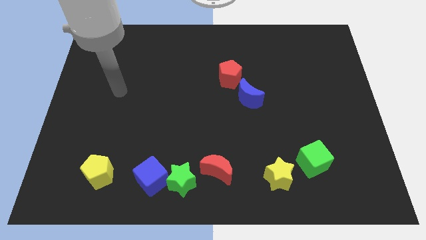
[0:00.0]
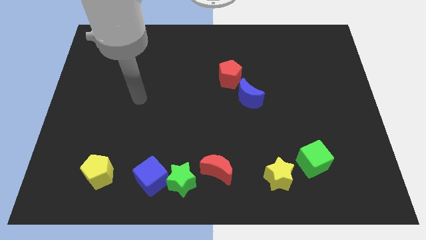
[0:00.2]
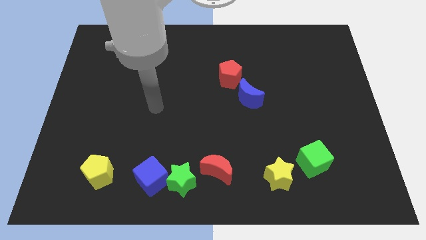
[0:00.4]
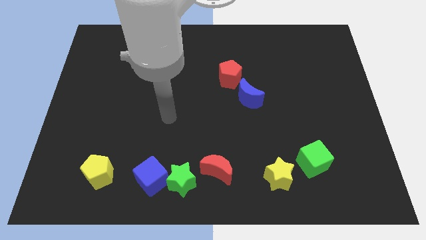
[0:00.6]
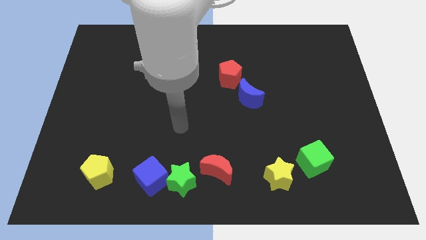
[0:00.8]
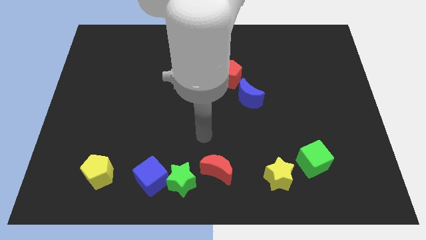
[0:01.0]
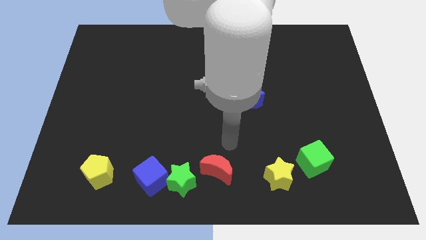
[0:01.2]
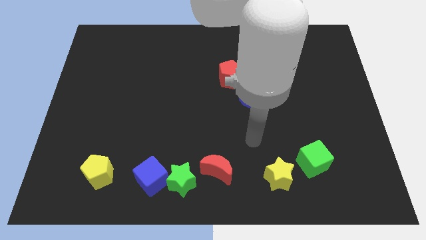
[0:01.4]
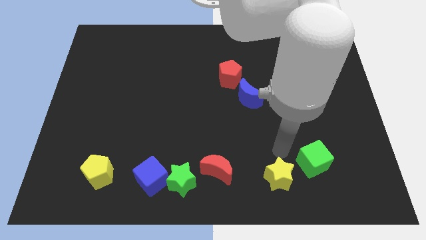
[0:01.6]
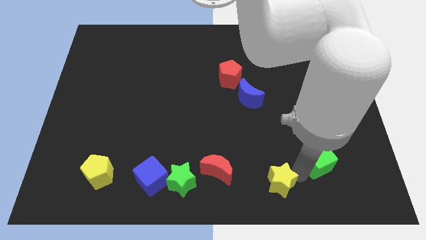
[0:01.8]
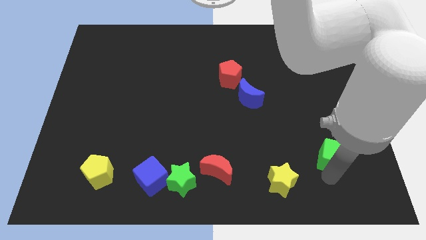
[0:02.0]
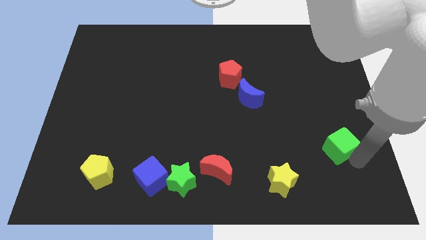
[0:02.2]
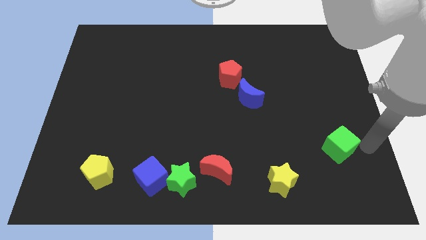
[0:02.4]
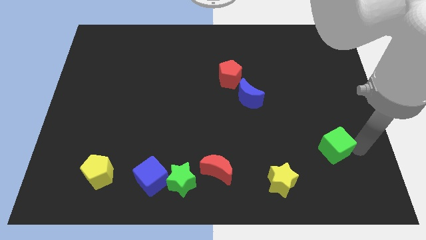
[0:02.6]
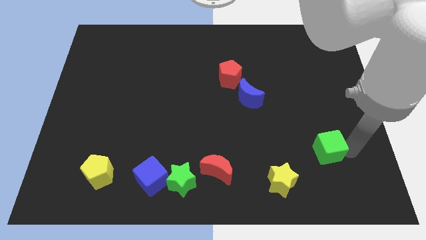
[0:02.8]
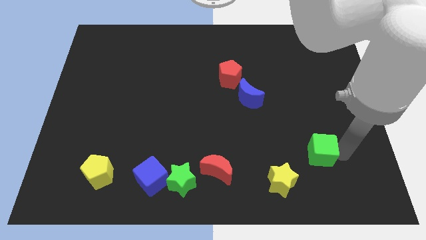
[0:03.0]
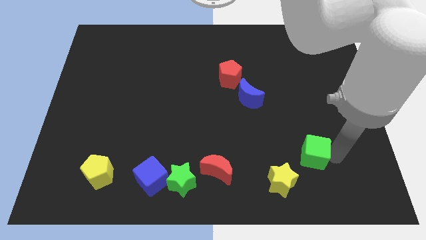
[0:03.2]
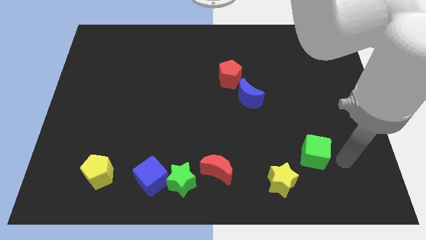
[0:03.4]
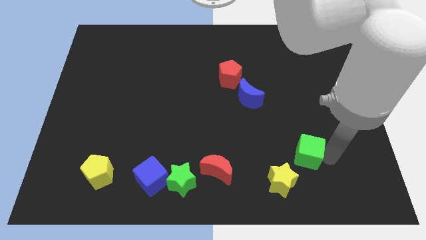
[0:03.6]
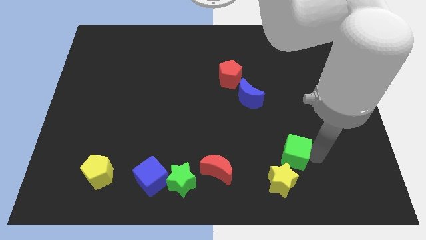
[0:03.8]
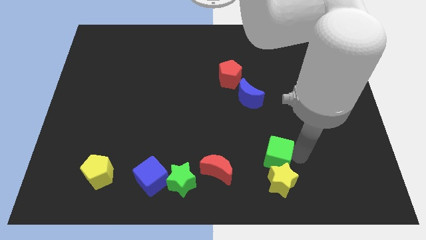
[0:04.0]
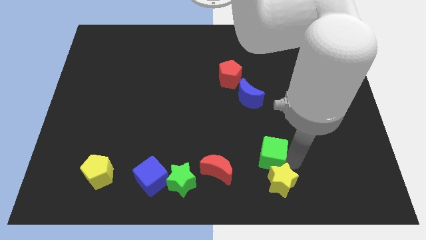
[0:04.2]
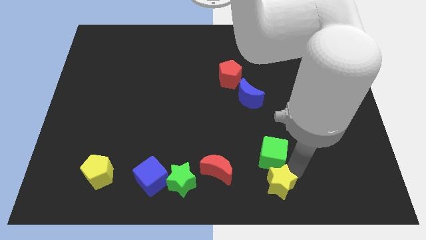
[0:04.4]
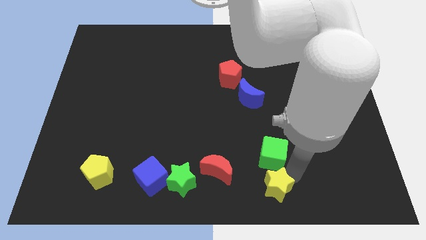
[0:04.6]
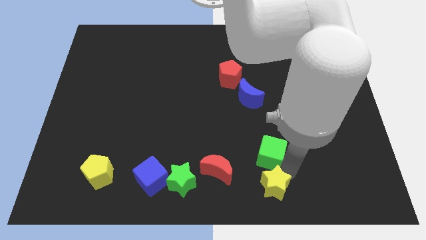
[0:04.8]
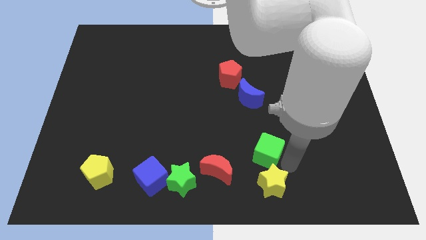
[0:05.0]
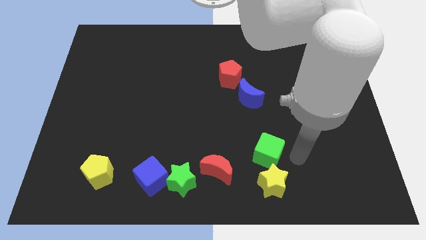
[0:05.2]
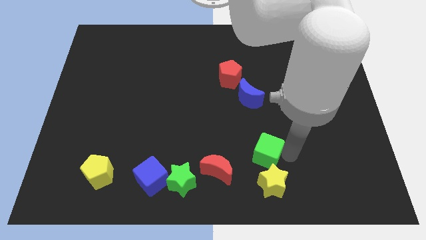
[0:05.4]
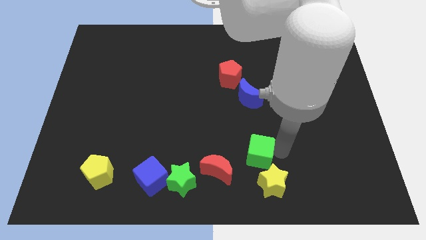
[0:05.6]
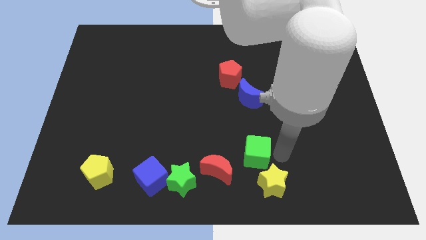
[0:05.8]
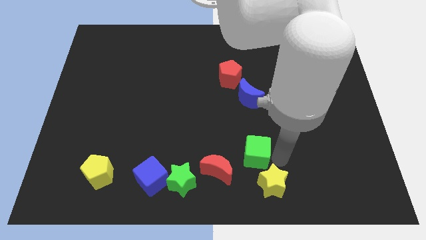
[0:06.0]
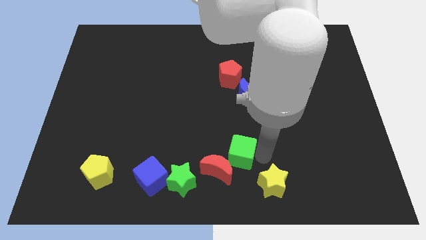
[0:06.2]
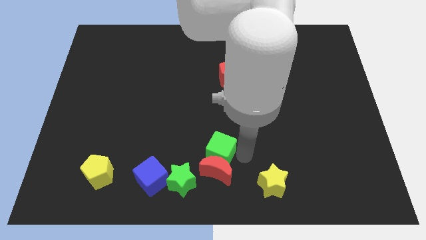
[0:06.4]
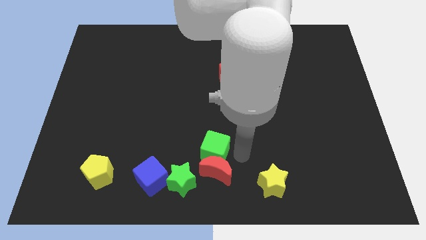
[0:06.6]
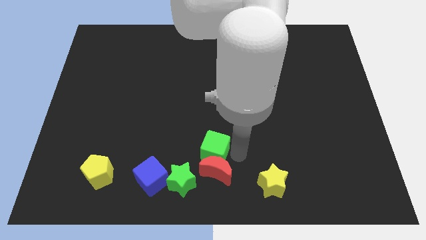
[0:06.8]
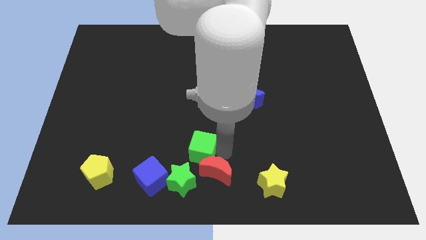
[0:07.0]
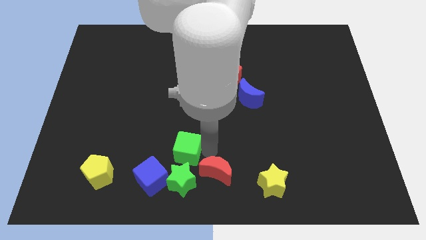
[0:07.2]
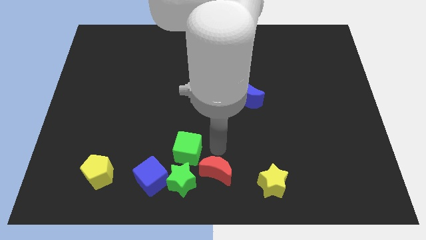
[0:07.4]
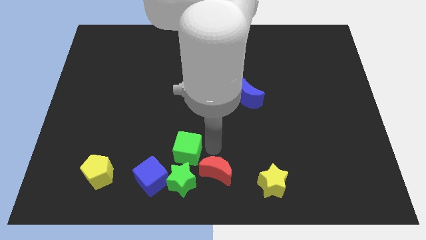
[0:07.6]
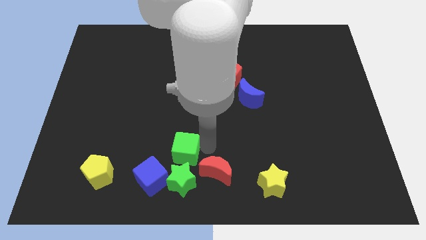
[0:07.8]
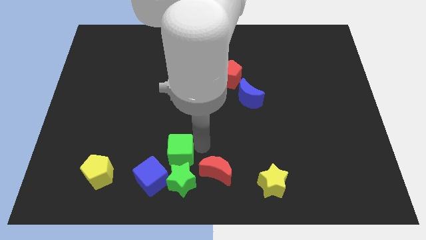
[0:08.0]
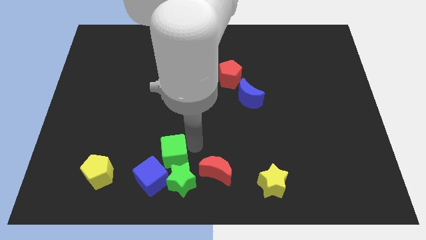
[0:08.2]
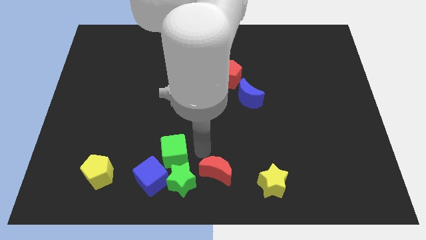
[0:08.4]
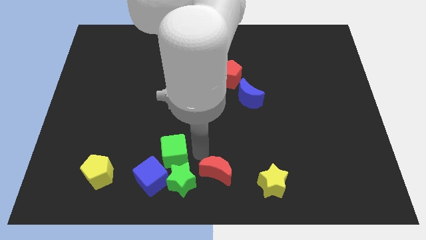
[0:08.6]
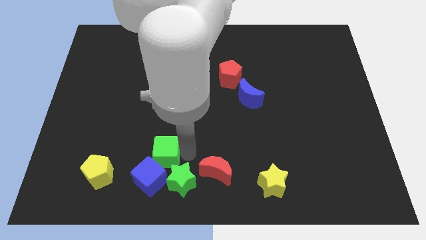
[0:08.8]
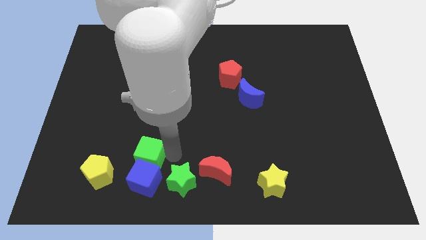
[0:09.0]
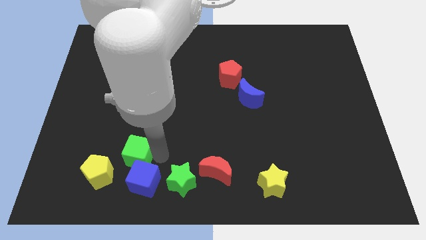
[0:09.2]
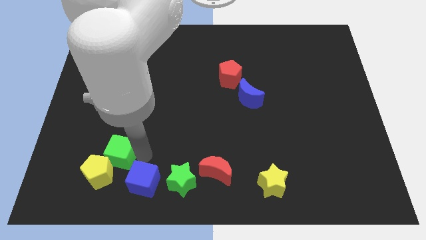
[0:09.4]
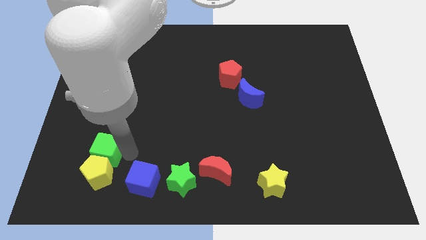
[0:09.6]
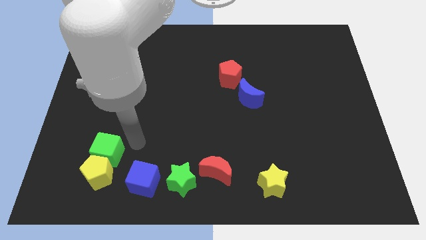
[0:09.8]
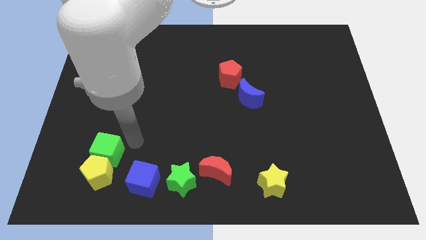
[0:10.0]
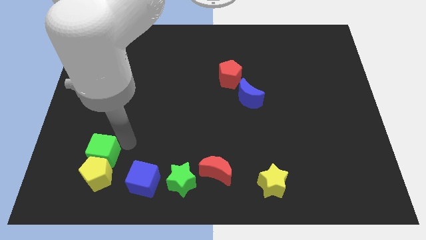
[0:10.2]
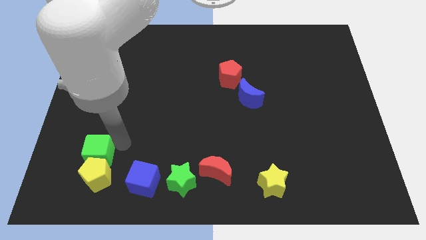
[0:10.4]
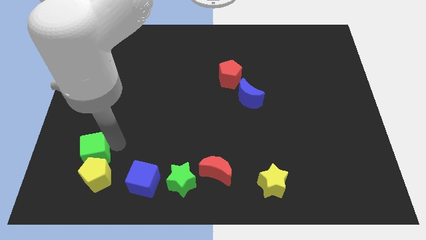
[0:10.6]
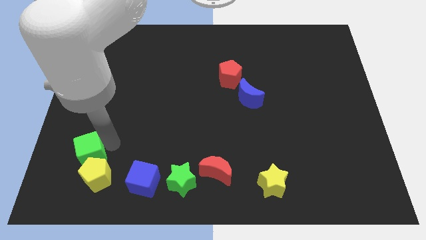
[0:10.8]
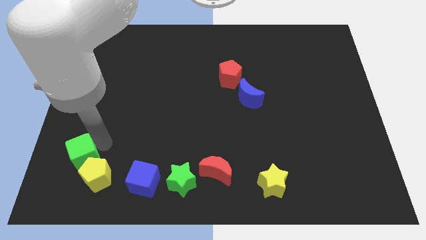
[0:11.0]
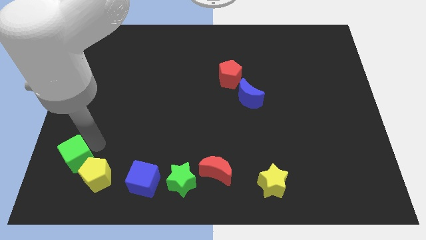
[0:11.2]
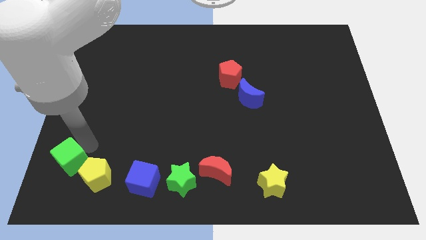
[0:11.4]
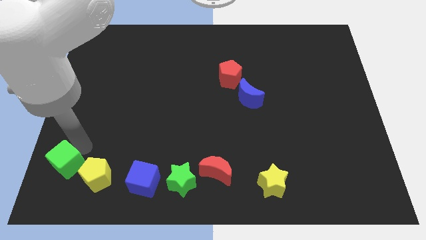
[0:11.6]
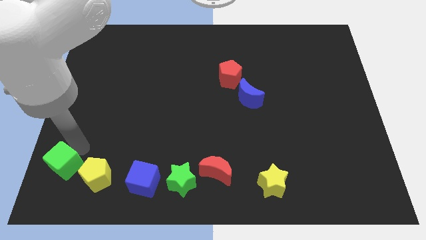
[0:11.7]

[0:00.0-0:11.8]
put the green cube to the bottom left of the board
